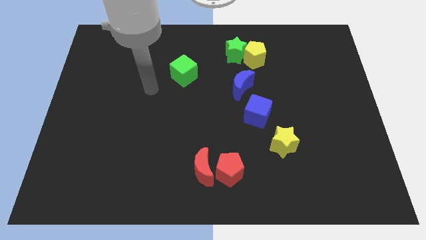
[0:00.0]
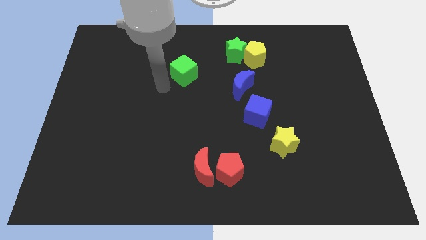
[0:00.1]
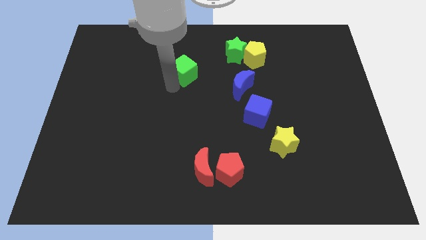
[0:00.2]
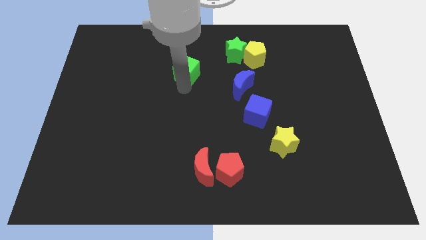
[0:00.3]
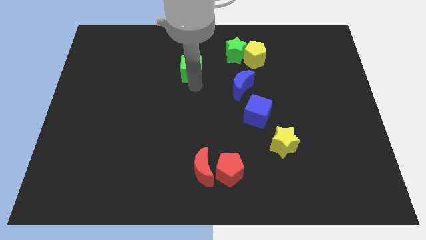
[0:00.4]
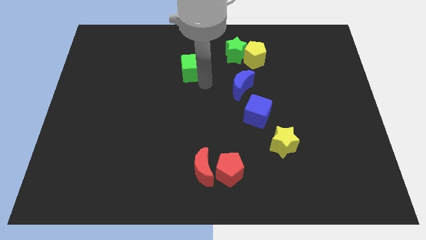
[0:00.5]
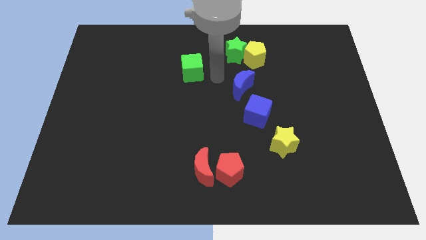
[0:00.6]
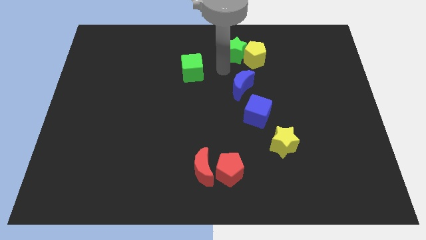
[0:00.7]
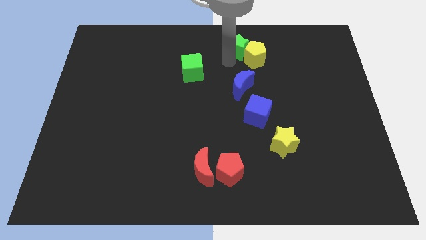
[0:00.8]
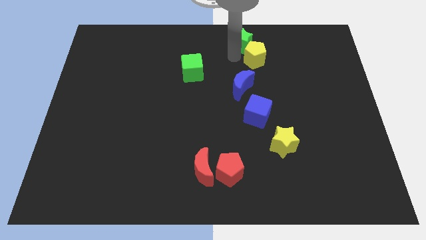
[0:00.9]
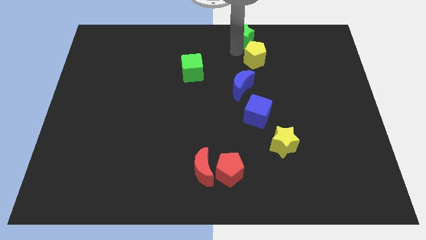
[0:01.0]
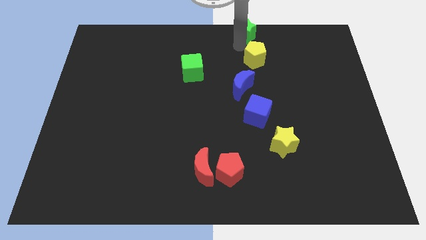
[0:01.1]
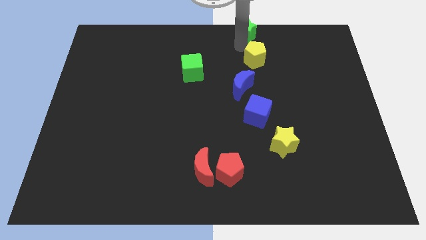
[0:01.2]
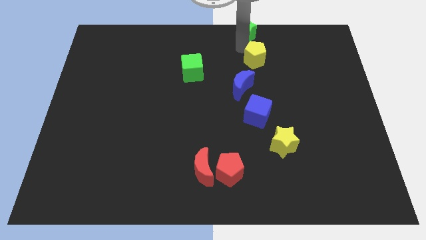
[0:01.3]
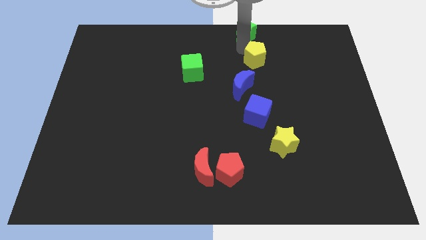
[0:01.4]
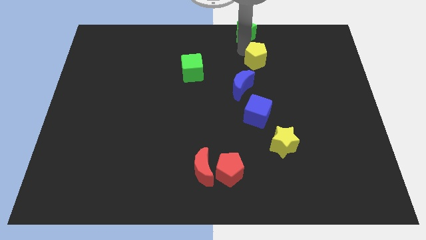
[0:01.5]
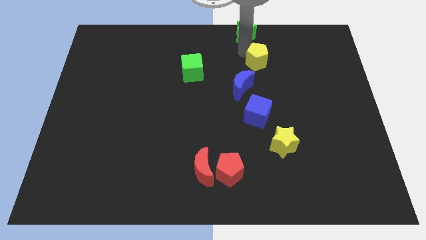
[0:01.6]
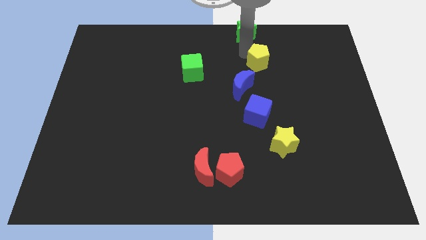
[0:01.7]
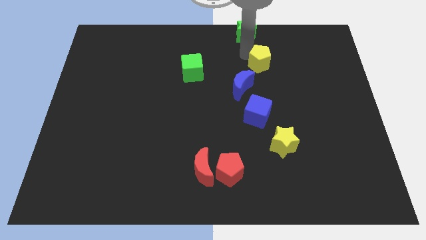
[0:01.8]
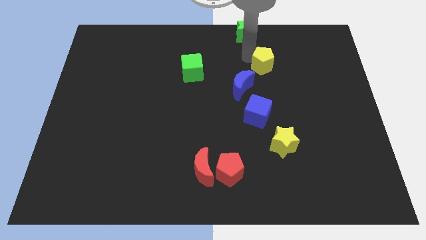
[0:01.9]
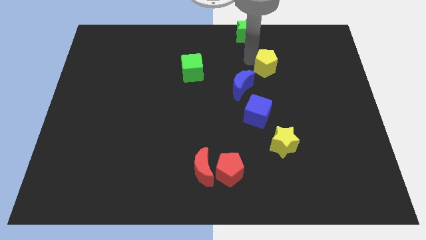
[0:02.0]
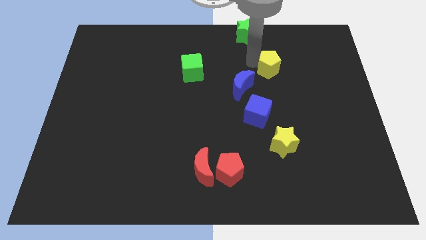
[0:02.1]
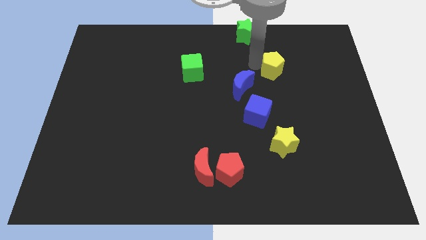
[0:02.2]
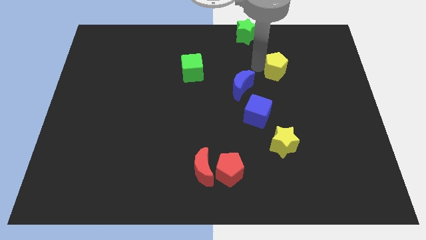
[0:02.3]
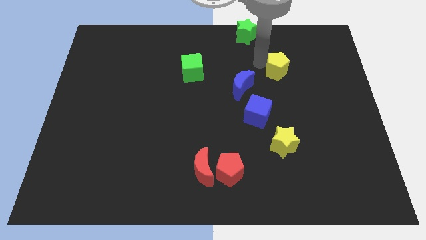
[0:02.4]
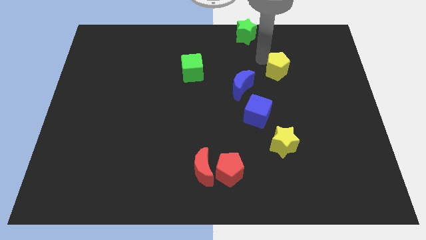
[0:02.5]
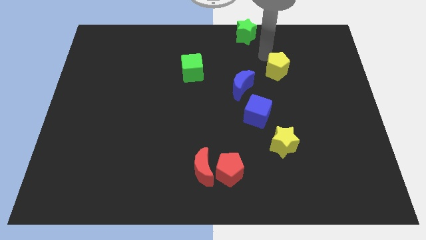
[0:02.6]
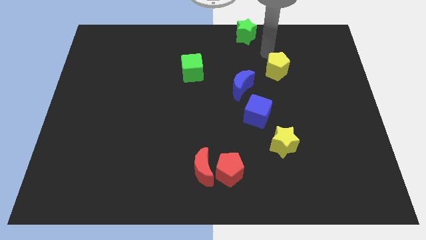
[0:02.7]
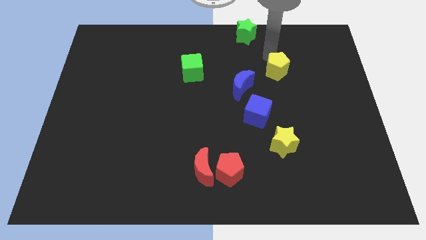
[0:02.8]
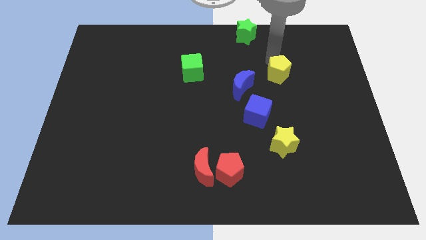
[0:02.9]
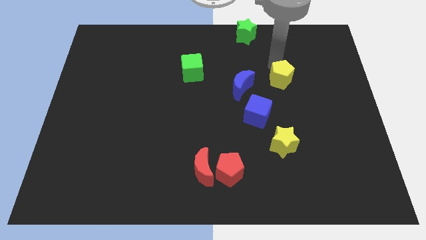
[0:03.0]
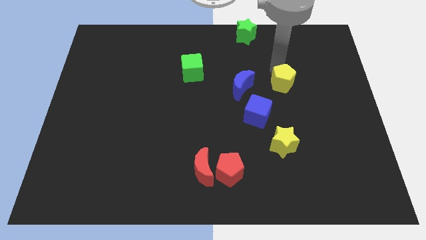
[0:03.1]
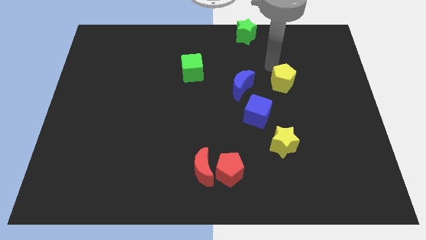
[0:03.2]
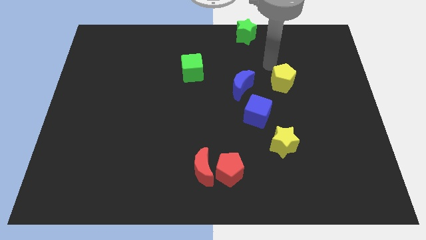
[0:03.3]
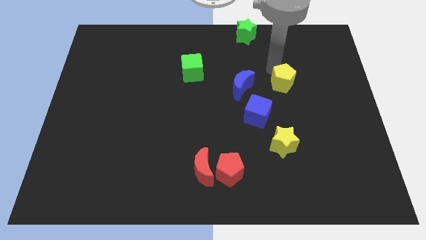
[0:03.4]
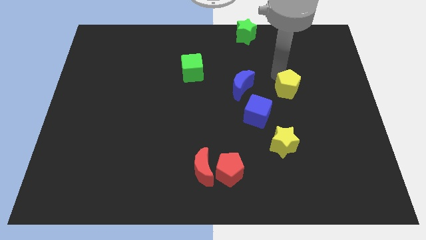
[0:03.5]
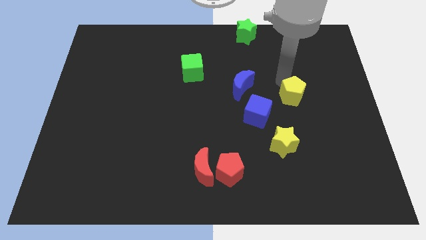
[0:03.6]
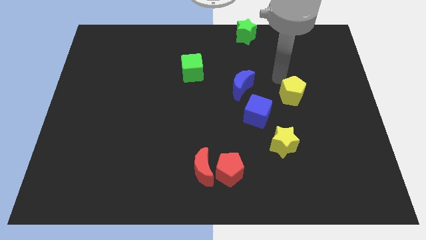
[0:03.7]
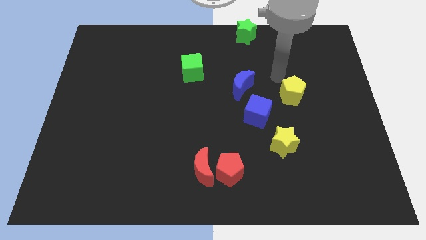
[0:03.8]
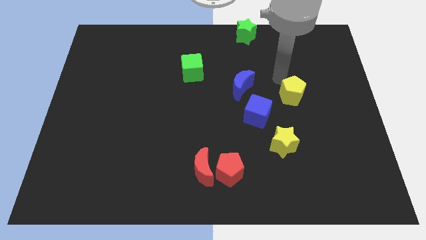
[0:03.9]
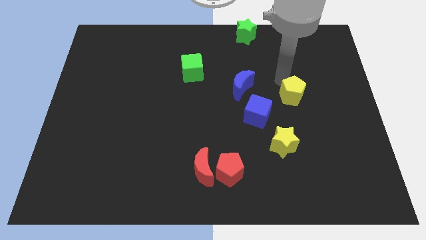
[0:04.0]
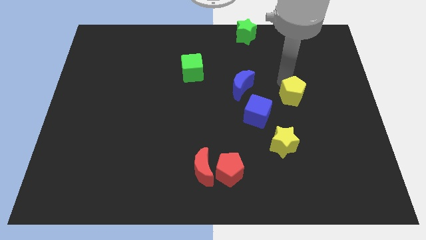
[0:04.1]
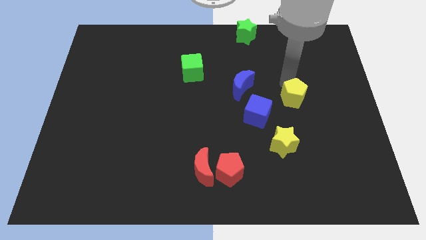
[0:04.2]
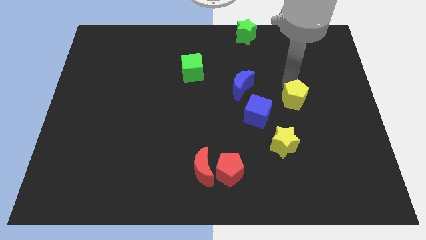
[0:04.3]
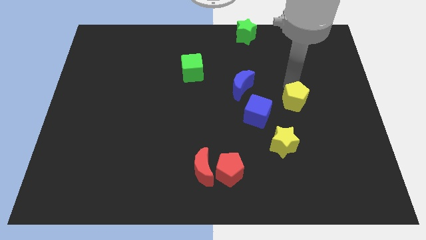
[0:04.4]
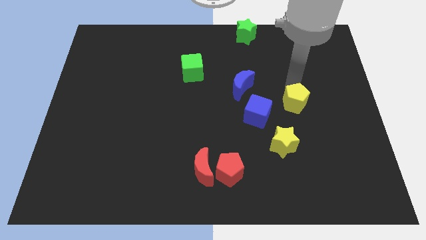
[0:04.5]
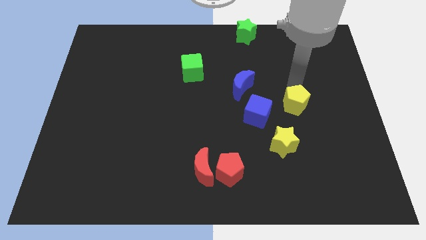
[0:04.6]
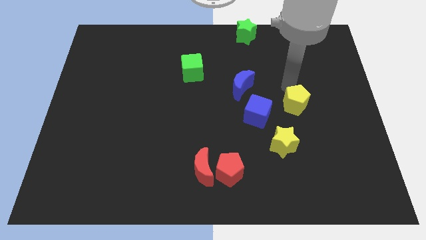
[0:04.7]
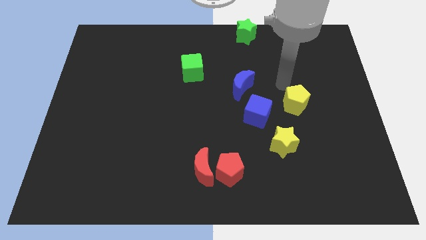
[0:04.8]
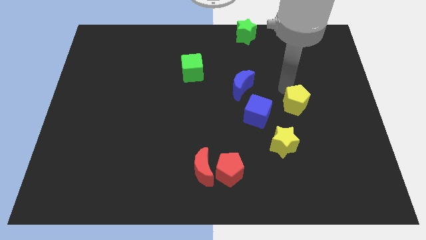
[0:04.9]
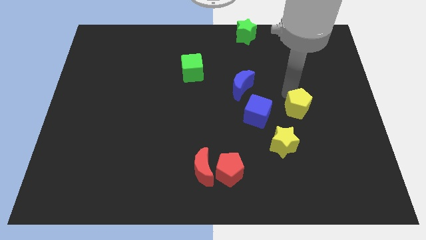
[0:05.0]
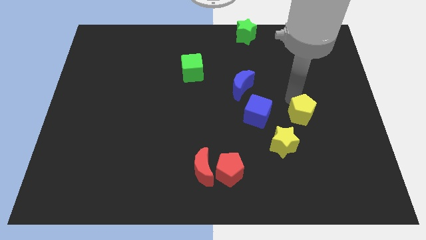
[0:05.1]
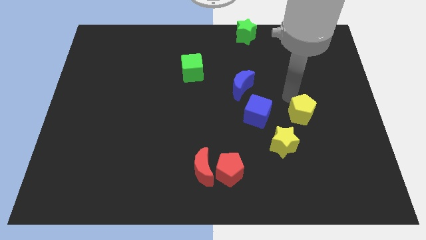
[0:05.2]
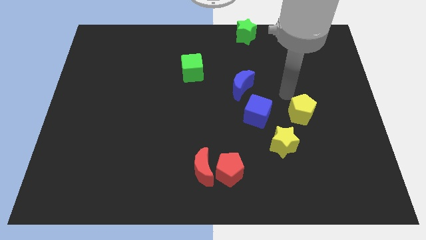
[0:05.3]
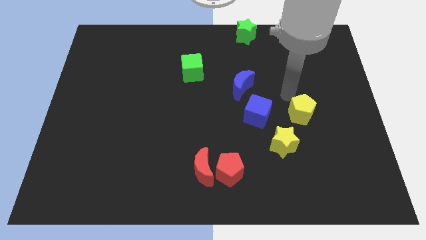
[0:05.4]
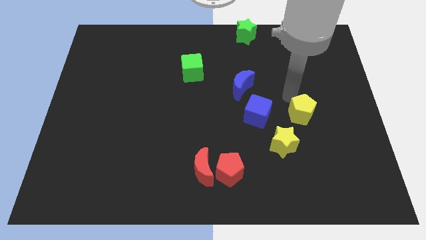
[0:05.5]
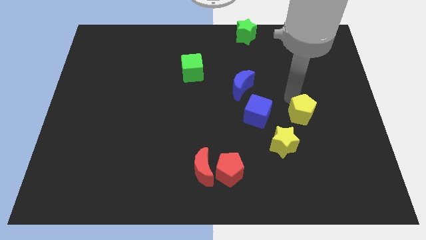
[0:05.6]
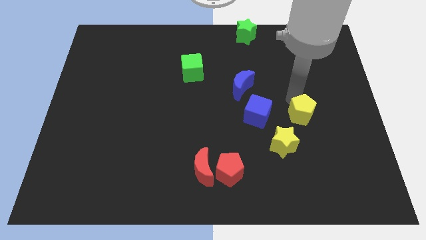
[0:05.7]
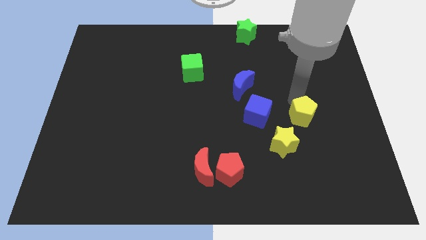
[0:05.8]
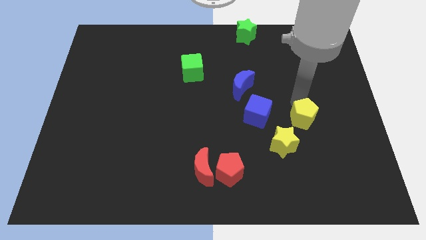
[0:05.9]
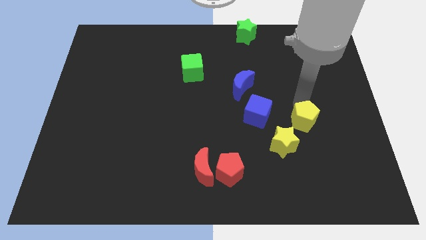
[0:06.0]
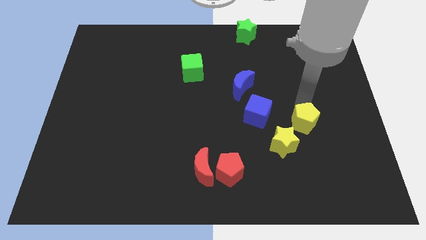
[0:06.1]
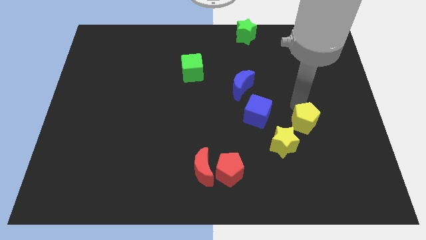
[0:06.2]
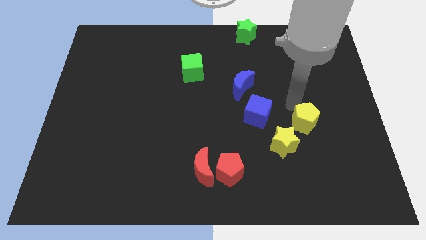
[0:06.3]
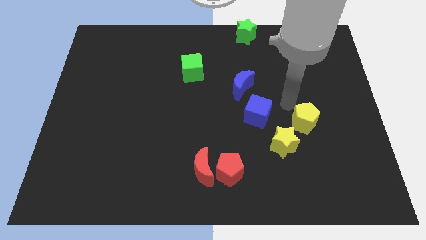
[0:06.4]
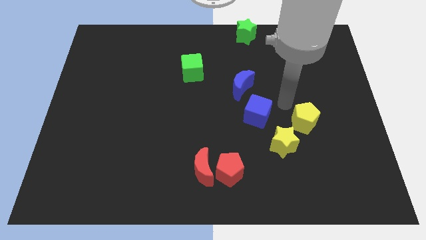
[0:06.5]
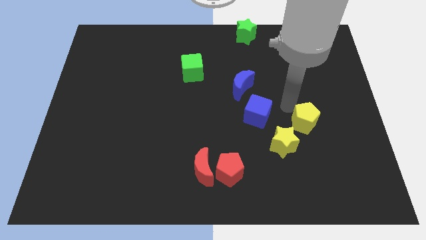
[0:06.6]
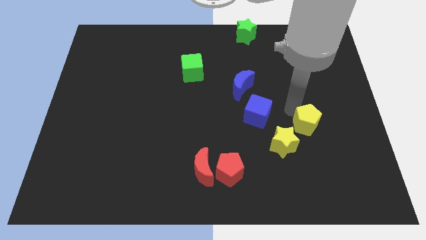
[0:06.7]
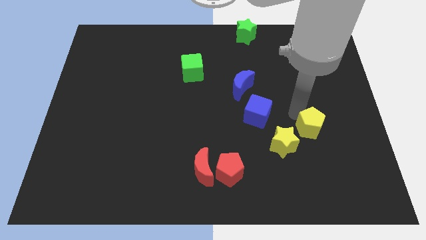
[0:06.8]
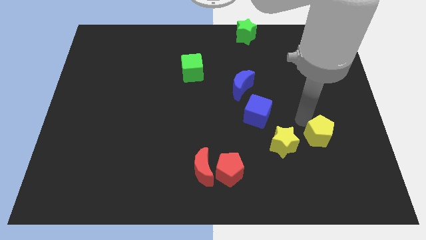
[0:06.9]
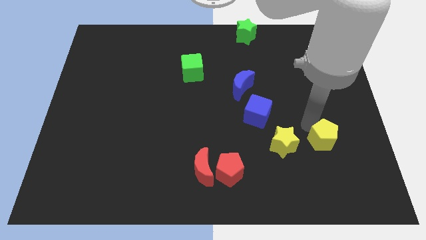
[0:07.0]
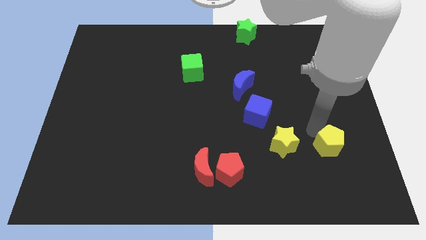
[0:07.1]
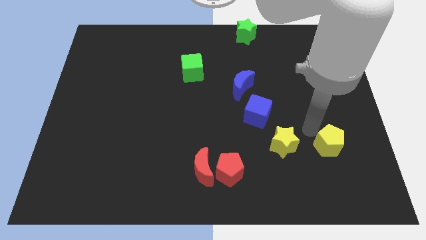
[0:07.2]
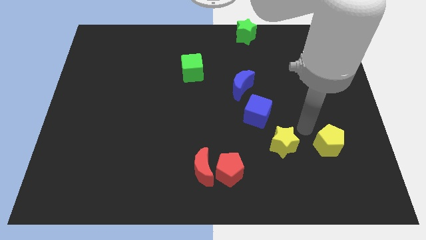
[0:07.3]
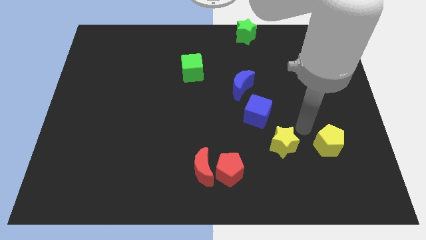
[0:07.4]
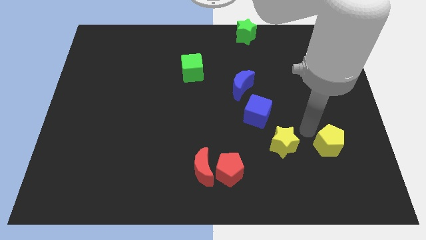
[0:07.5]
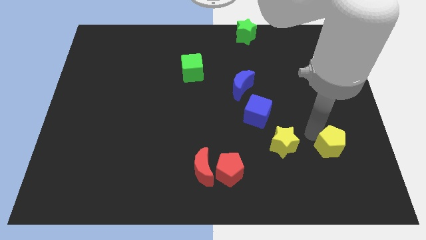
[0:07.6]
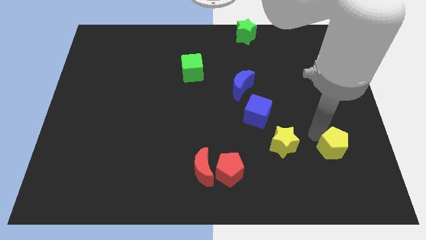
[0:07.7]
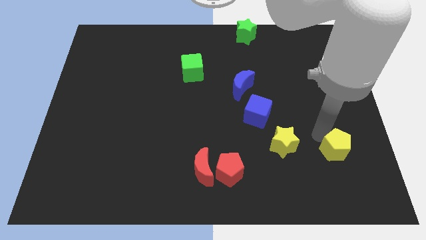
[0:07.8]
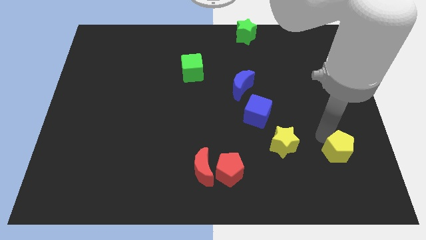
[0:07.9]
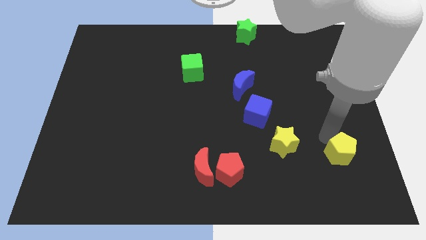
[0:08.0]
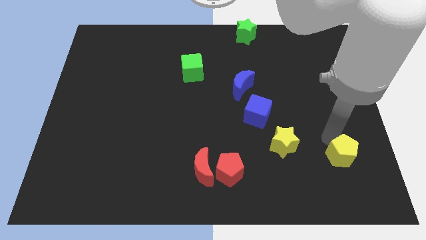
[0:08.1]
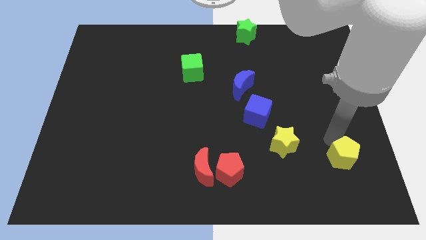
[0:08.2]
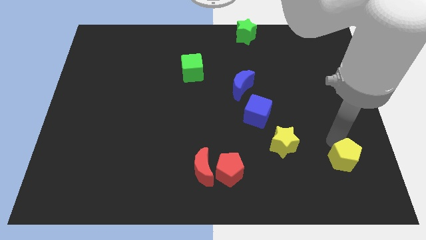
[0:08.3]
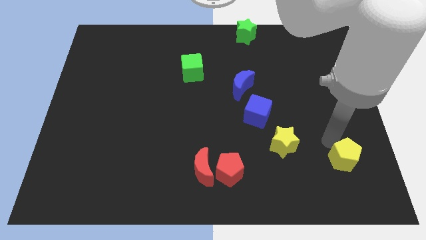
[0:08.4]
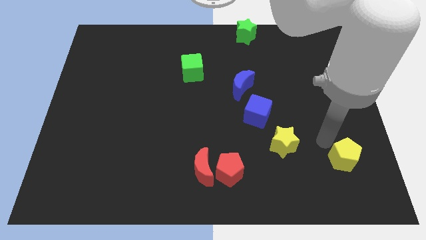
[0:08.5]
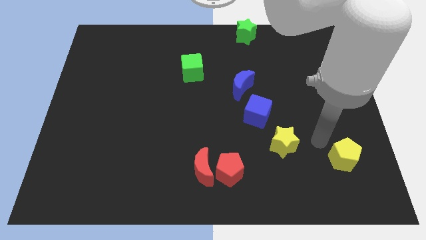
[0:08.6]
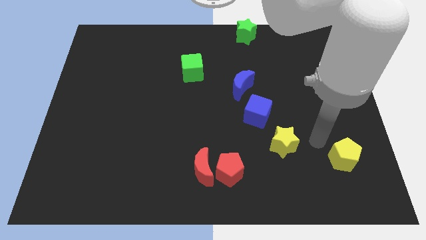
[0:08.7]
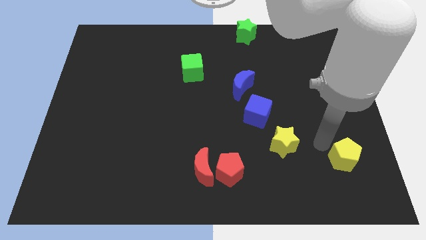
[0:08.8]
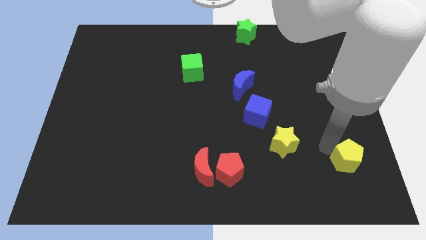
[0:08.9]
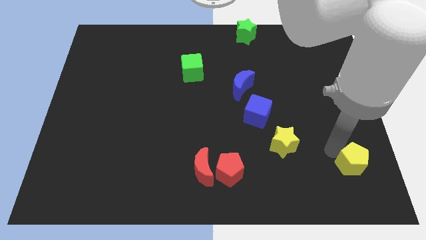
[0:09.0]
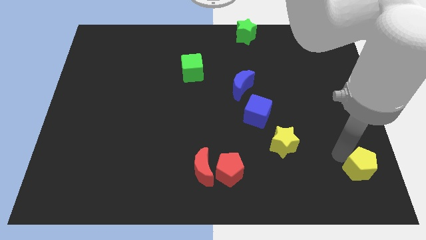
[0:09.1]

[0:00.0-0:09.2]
push the yellow pentagon to the lower right corner
